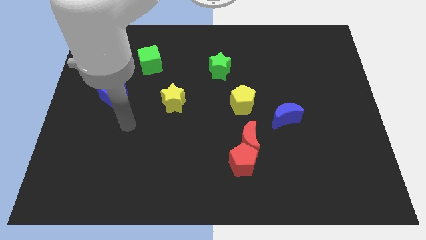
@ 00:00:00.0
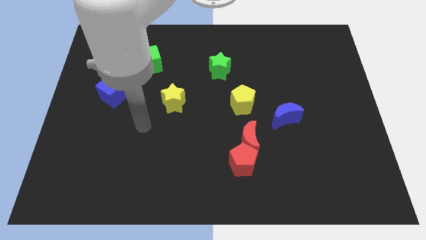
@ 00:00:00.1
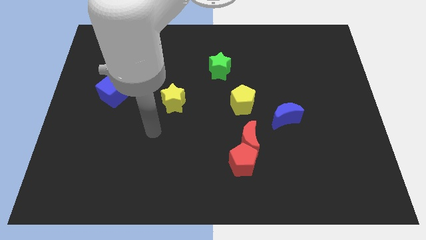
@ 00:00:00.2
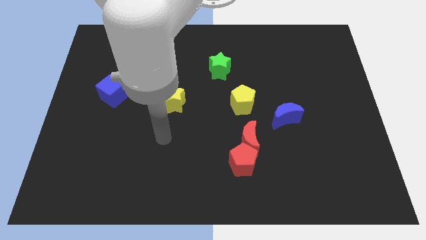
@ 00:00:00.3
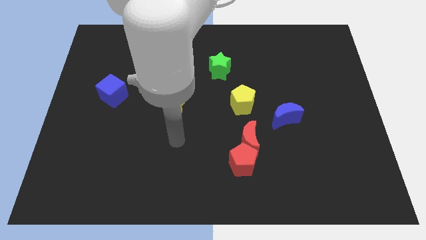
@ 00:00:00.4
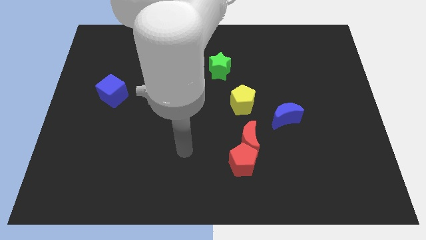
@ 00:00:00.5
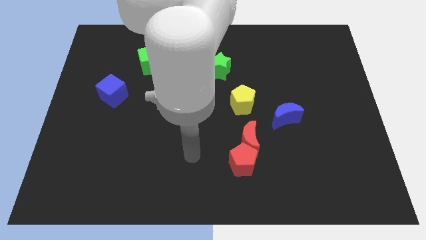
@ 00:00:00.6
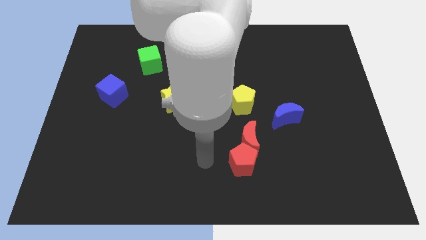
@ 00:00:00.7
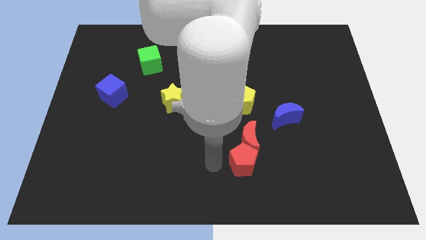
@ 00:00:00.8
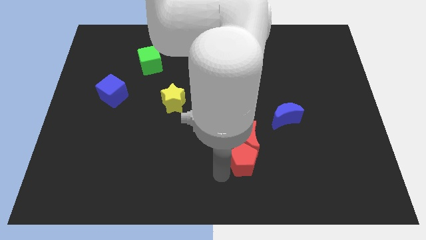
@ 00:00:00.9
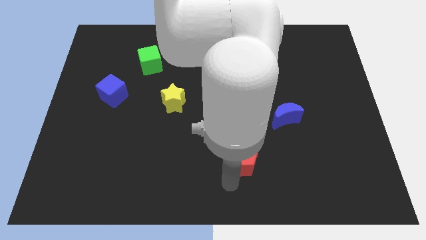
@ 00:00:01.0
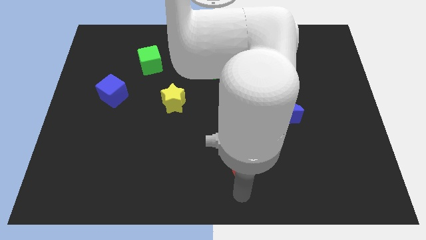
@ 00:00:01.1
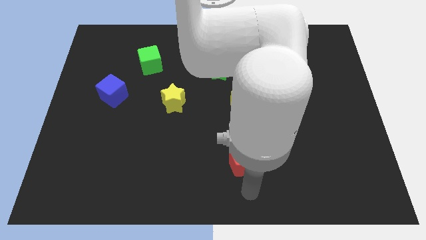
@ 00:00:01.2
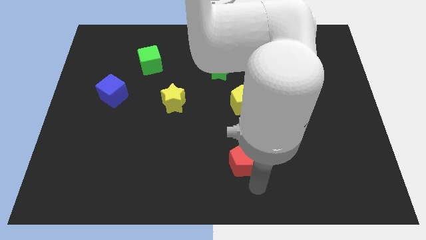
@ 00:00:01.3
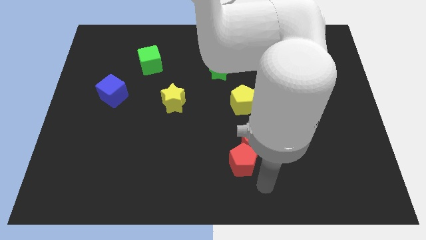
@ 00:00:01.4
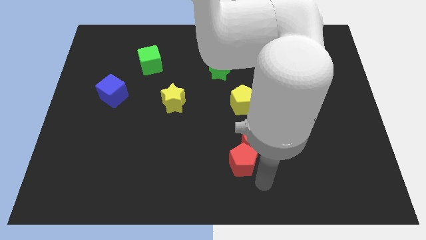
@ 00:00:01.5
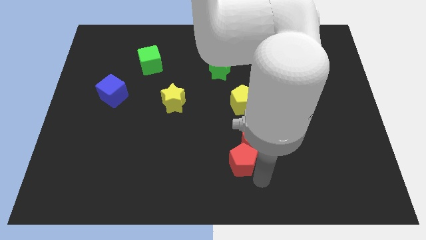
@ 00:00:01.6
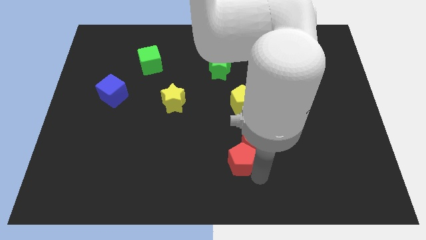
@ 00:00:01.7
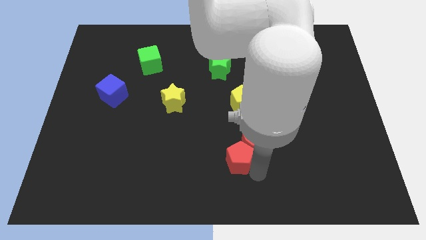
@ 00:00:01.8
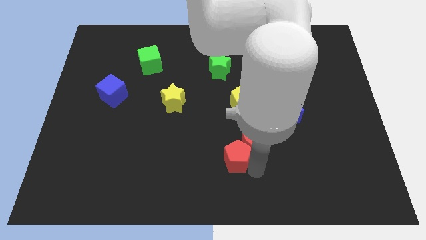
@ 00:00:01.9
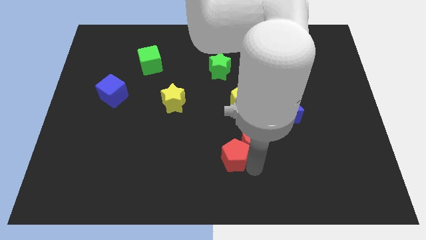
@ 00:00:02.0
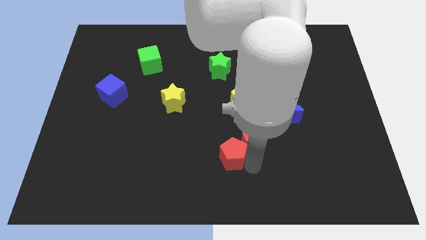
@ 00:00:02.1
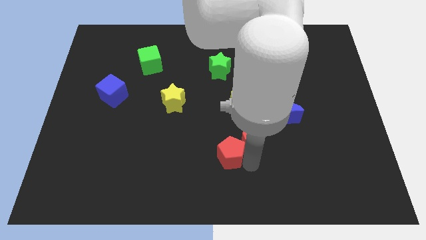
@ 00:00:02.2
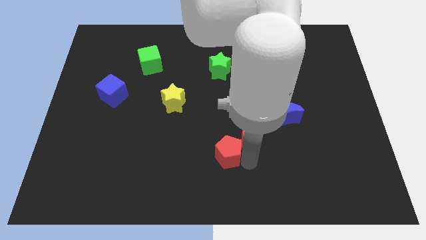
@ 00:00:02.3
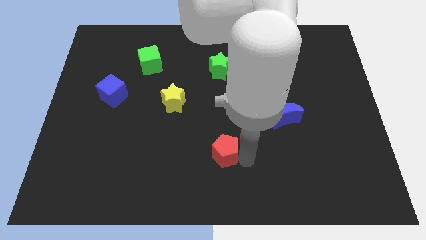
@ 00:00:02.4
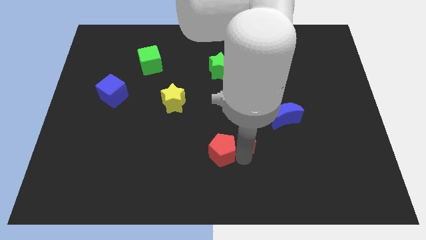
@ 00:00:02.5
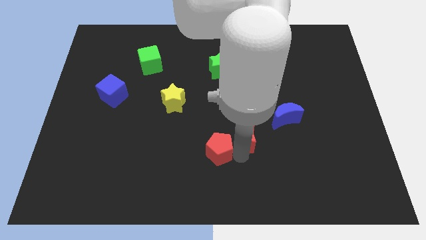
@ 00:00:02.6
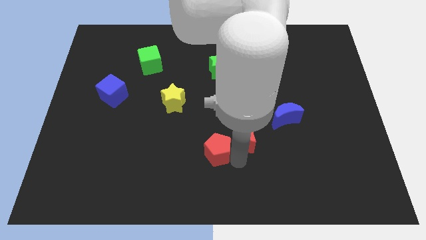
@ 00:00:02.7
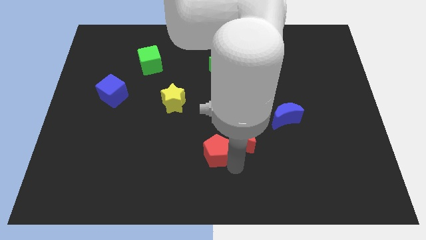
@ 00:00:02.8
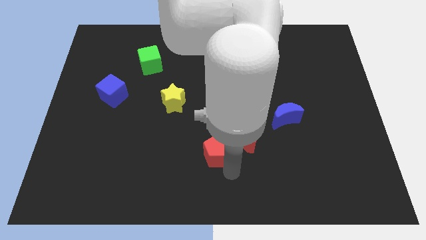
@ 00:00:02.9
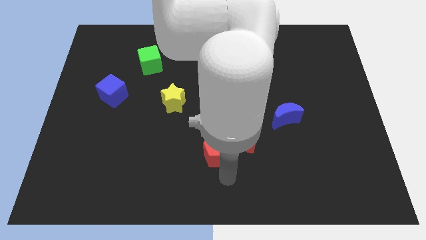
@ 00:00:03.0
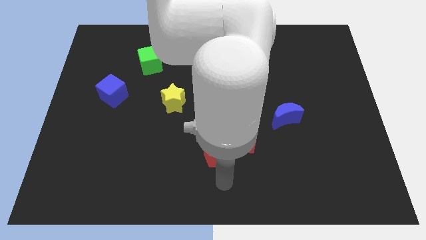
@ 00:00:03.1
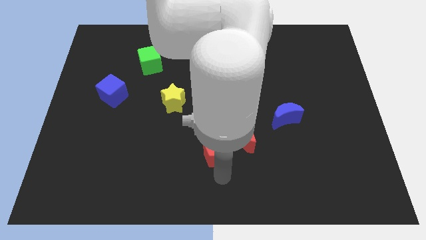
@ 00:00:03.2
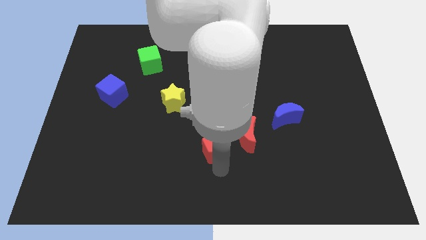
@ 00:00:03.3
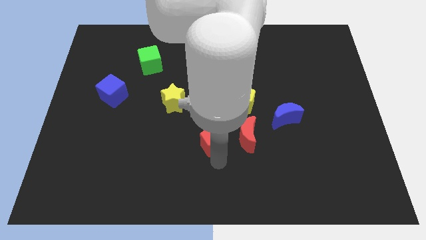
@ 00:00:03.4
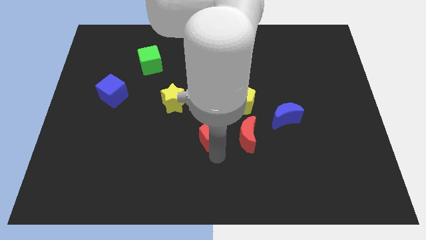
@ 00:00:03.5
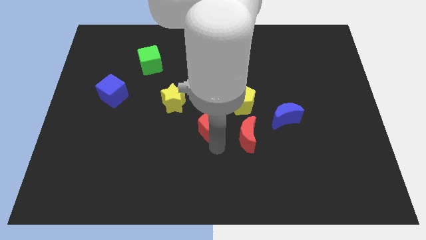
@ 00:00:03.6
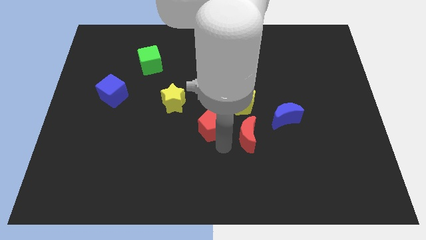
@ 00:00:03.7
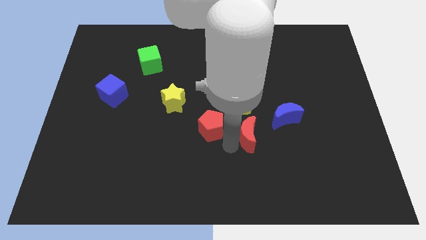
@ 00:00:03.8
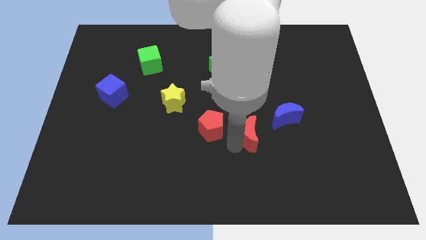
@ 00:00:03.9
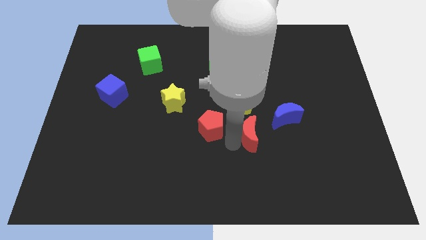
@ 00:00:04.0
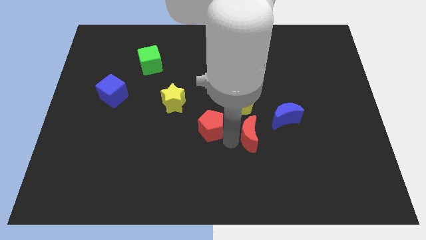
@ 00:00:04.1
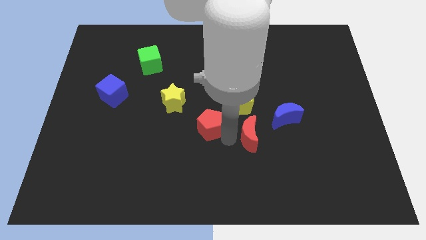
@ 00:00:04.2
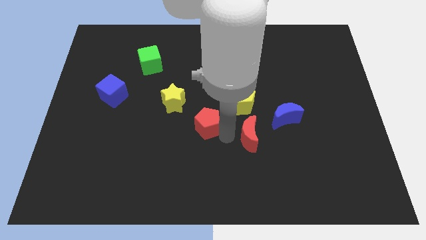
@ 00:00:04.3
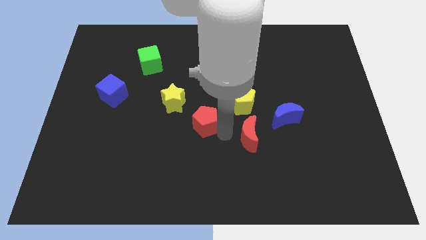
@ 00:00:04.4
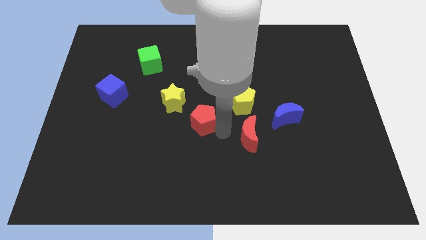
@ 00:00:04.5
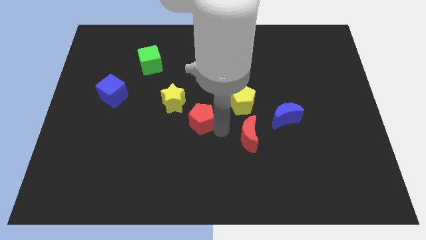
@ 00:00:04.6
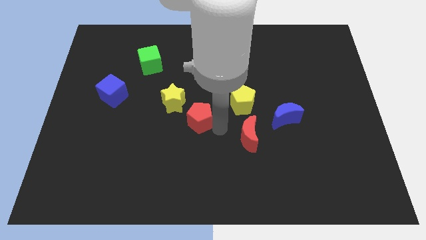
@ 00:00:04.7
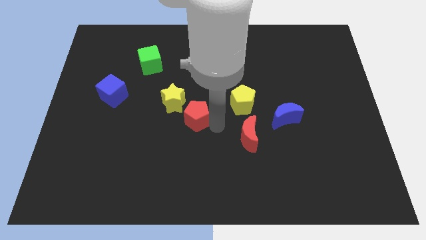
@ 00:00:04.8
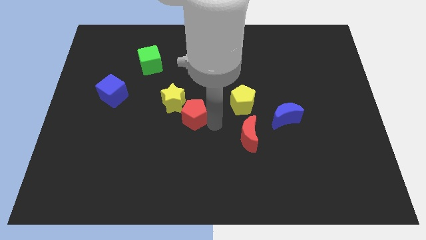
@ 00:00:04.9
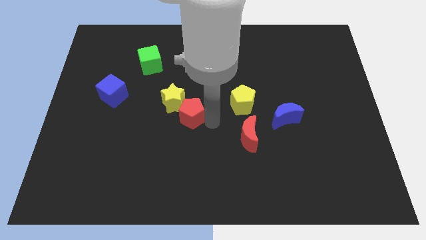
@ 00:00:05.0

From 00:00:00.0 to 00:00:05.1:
push the red pentagon next to the yellow star

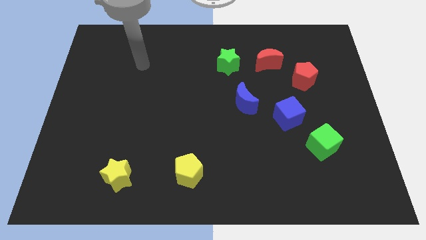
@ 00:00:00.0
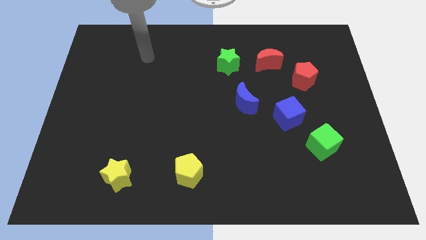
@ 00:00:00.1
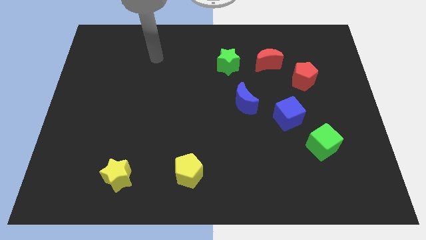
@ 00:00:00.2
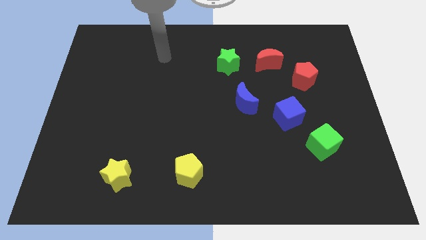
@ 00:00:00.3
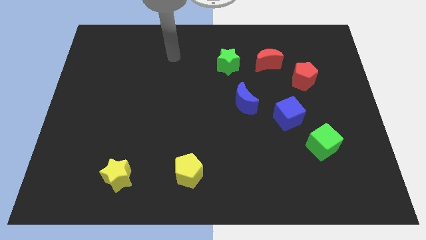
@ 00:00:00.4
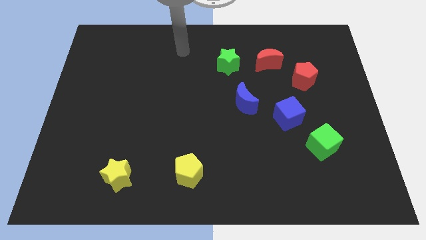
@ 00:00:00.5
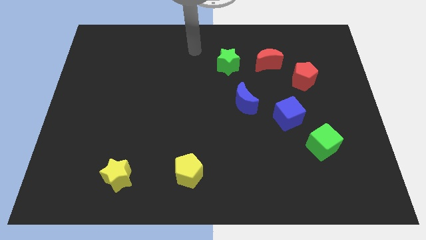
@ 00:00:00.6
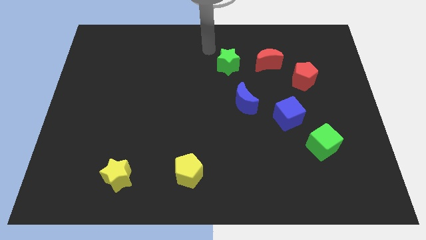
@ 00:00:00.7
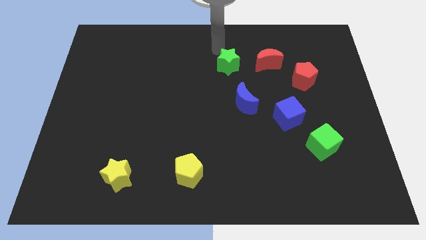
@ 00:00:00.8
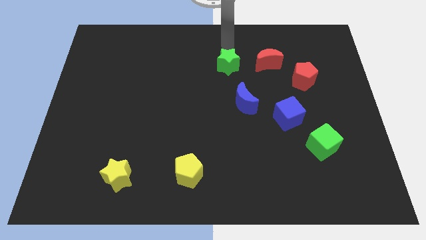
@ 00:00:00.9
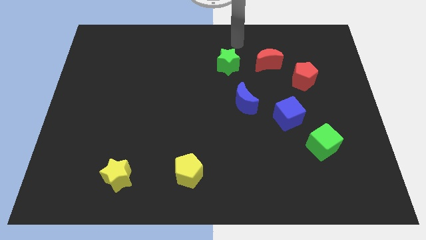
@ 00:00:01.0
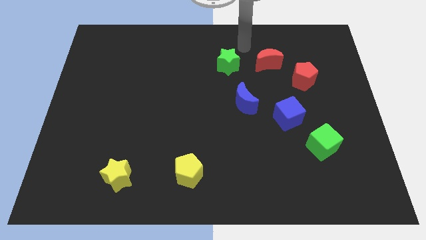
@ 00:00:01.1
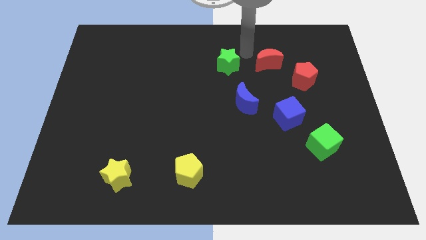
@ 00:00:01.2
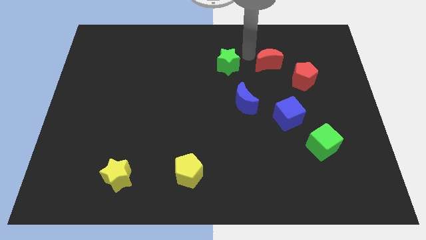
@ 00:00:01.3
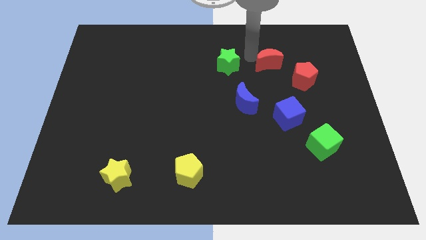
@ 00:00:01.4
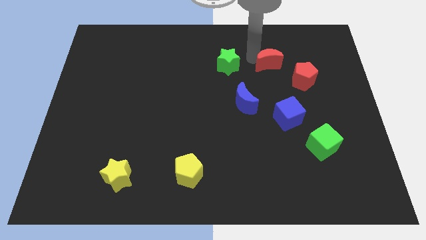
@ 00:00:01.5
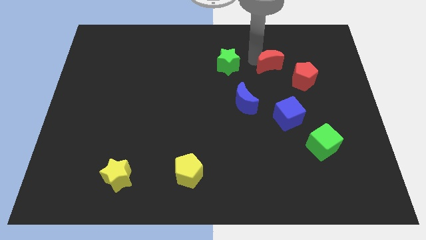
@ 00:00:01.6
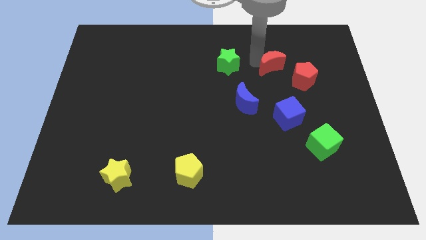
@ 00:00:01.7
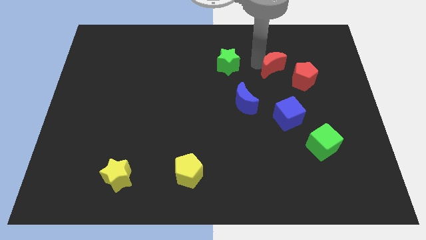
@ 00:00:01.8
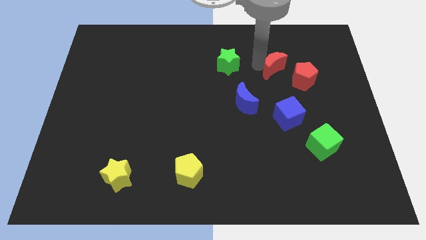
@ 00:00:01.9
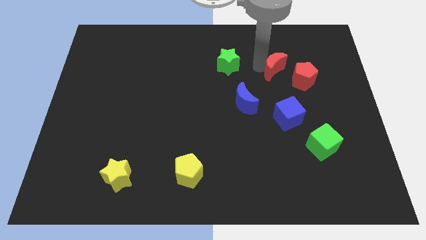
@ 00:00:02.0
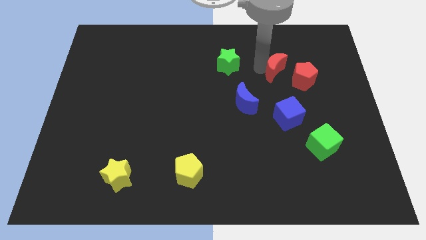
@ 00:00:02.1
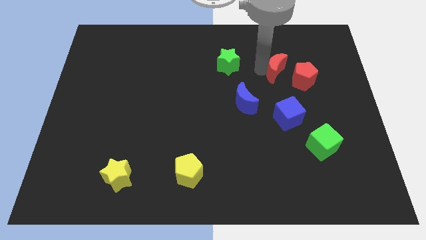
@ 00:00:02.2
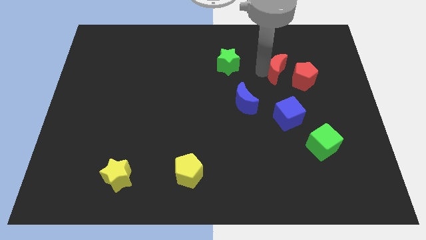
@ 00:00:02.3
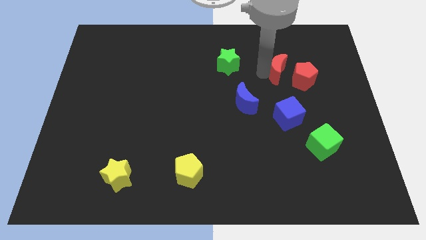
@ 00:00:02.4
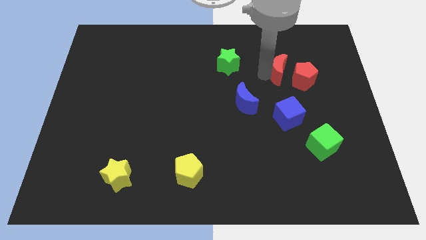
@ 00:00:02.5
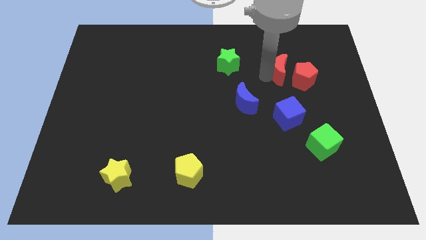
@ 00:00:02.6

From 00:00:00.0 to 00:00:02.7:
put the red moon towards the red pentagon
